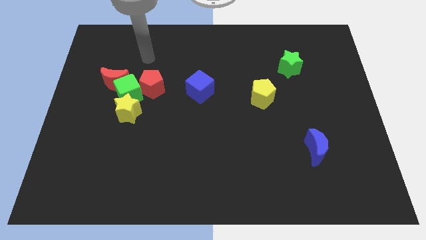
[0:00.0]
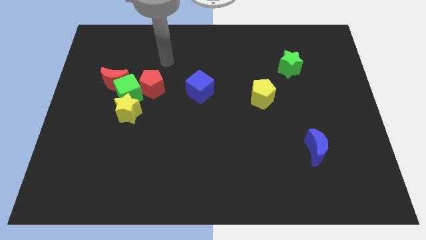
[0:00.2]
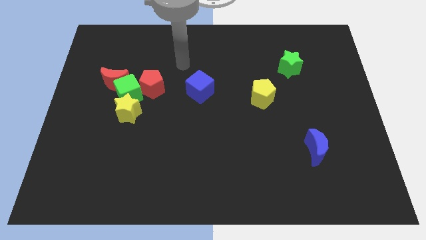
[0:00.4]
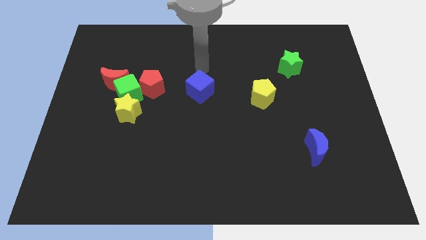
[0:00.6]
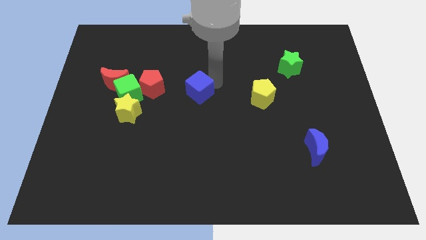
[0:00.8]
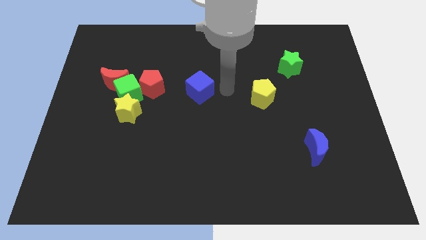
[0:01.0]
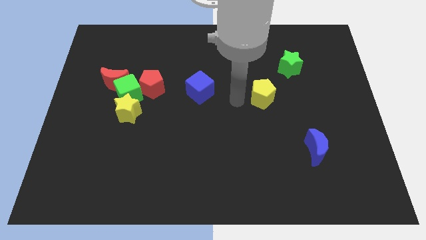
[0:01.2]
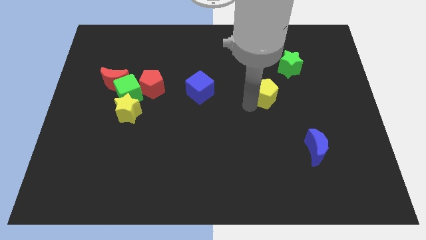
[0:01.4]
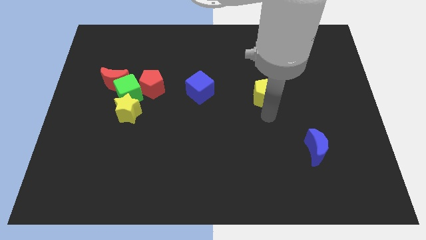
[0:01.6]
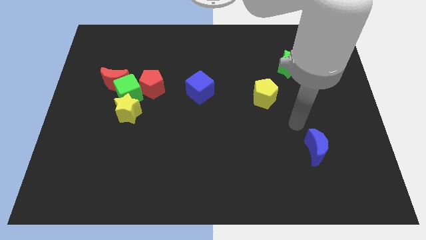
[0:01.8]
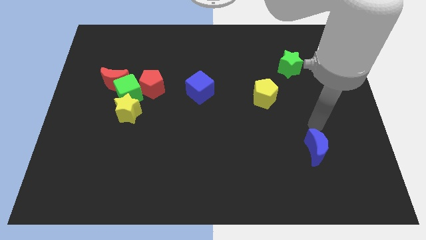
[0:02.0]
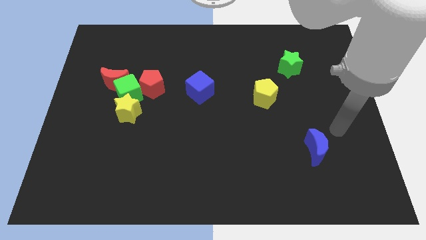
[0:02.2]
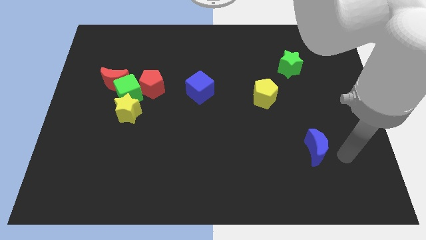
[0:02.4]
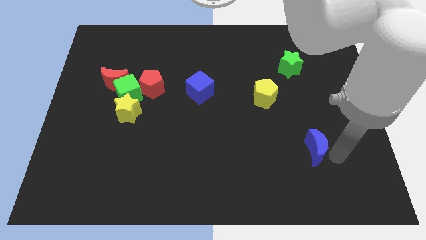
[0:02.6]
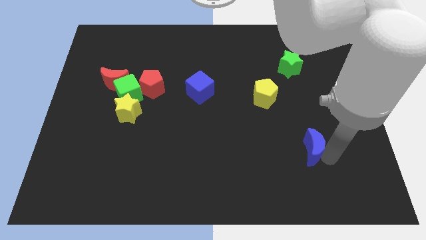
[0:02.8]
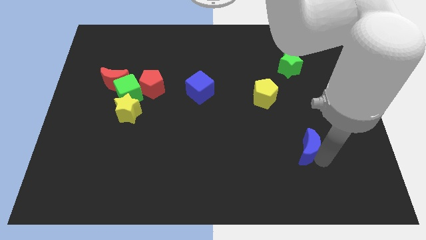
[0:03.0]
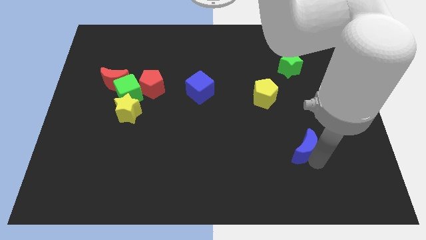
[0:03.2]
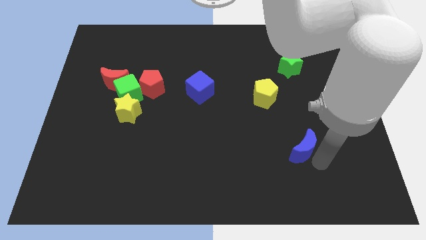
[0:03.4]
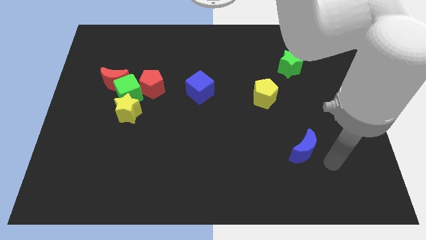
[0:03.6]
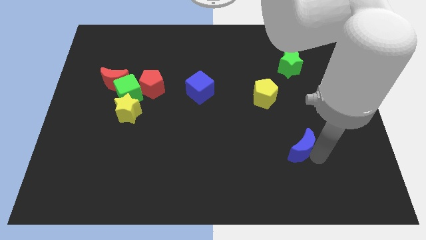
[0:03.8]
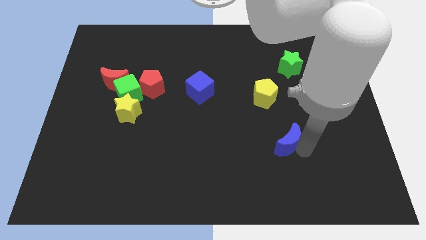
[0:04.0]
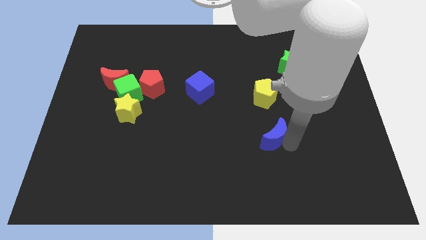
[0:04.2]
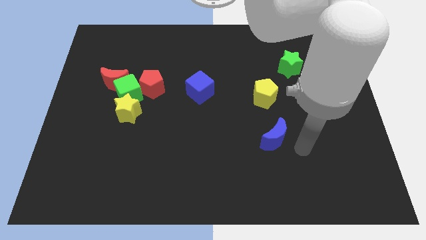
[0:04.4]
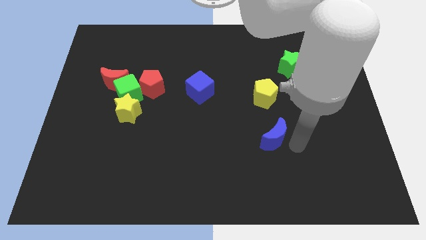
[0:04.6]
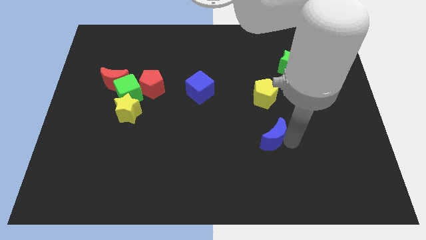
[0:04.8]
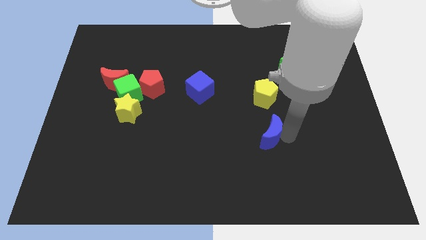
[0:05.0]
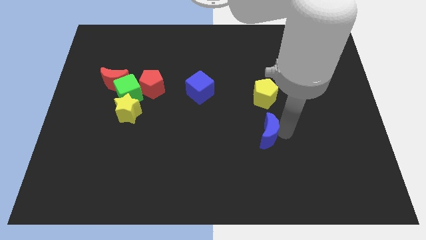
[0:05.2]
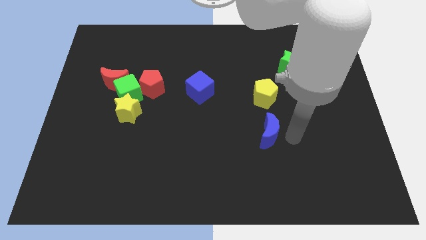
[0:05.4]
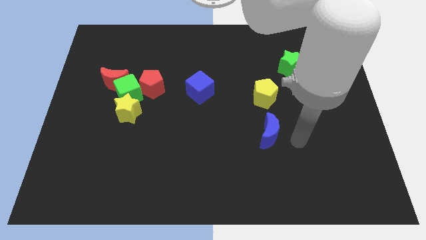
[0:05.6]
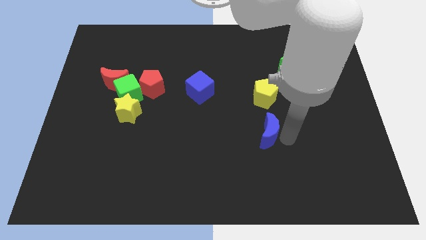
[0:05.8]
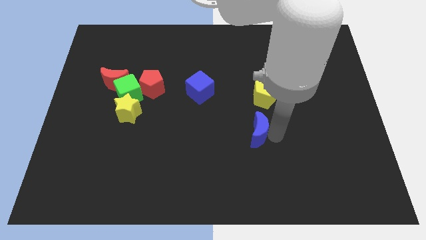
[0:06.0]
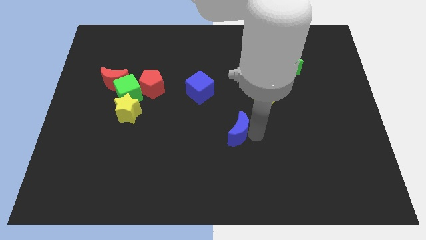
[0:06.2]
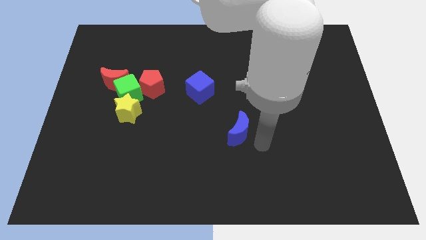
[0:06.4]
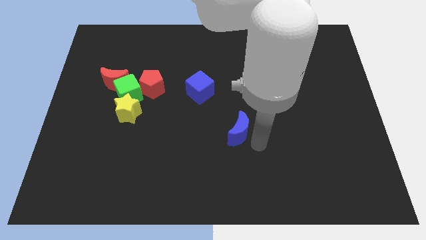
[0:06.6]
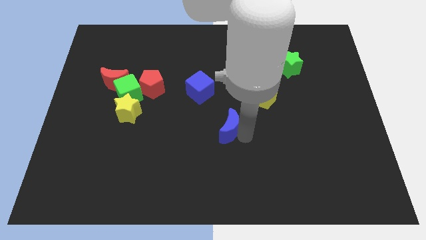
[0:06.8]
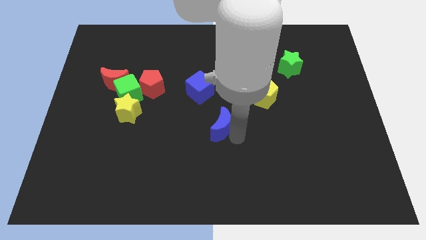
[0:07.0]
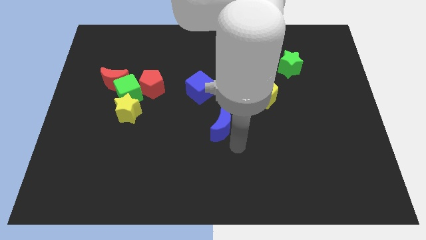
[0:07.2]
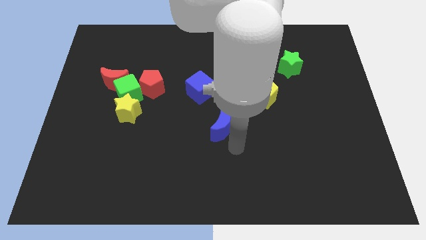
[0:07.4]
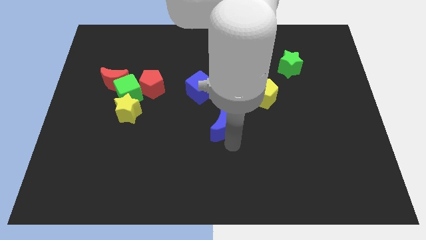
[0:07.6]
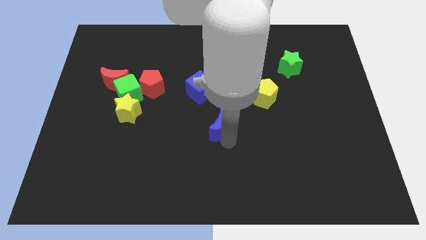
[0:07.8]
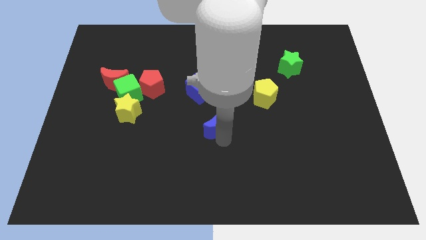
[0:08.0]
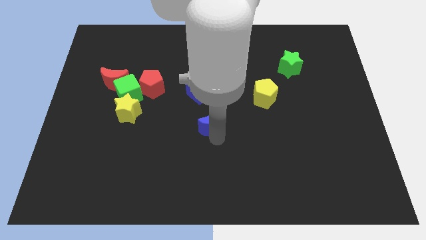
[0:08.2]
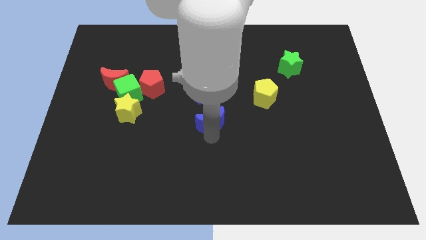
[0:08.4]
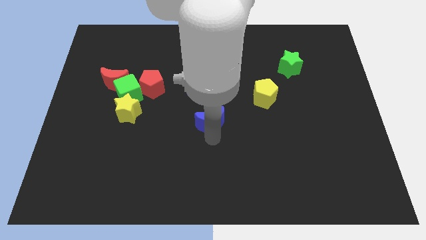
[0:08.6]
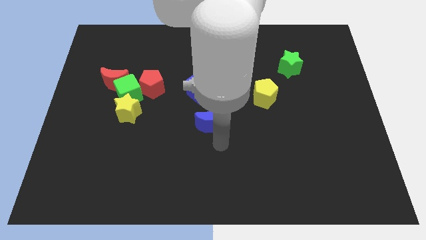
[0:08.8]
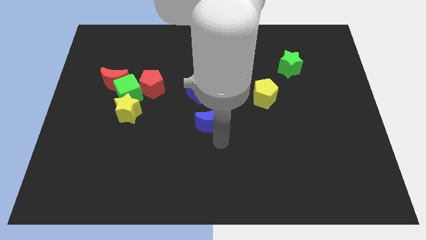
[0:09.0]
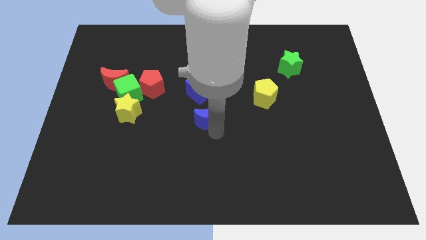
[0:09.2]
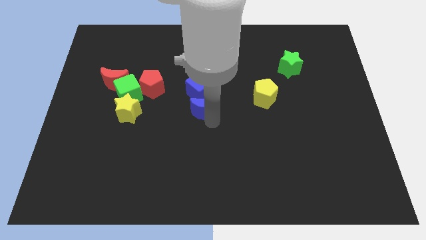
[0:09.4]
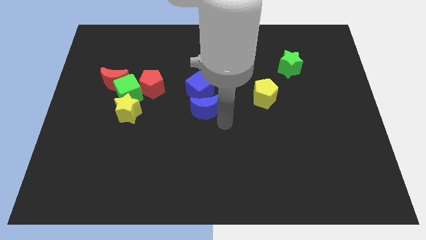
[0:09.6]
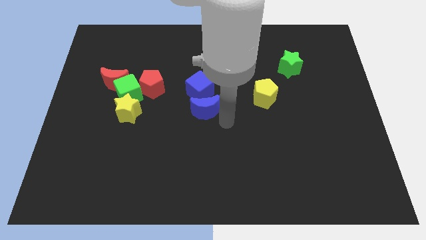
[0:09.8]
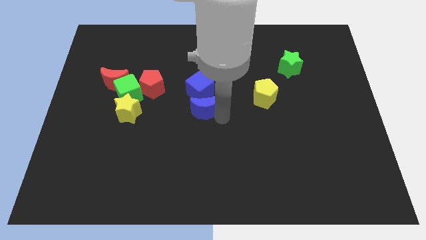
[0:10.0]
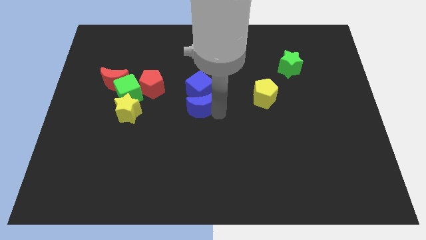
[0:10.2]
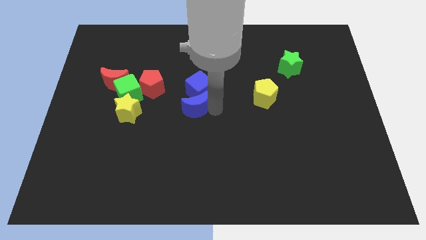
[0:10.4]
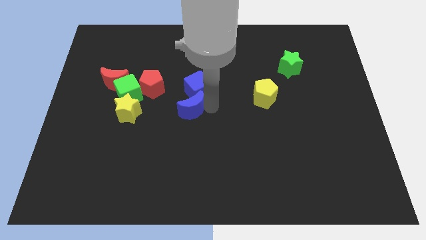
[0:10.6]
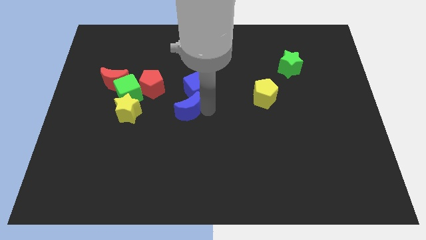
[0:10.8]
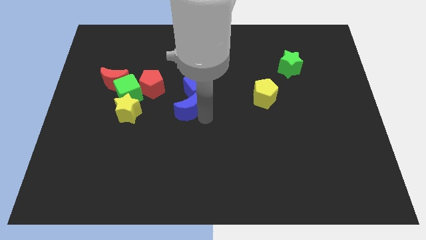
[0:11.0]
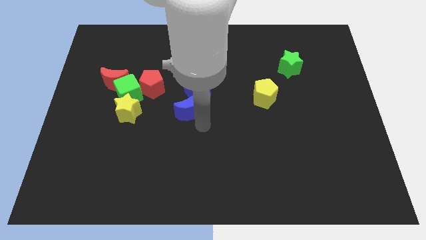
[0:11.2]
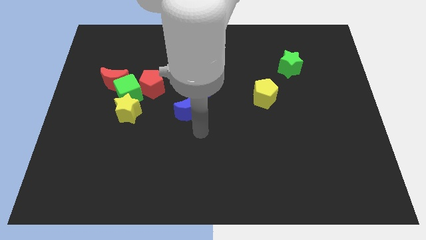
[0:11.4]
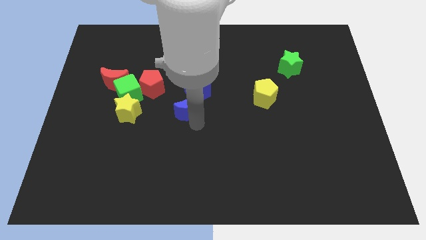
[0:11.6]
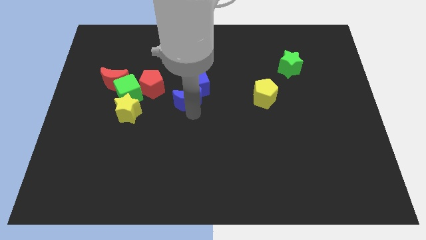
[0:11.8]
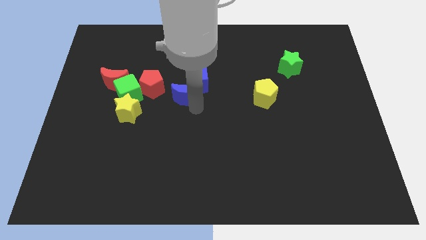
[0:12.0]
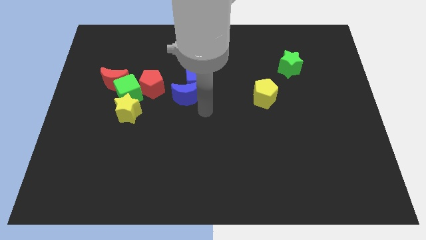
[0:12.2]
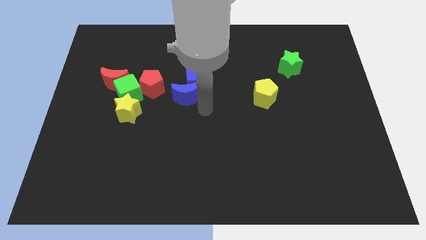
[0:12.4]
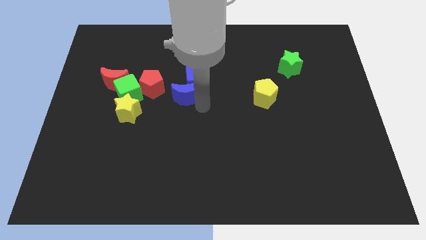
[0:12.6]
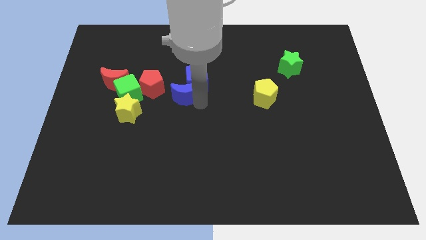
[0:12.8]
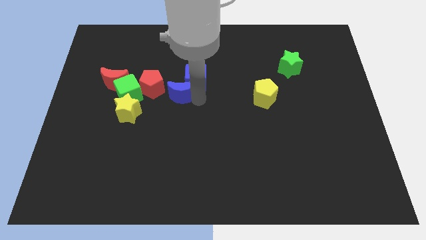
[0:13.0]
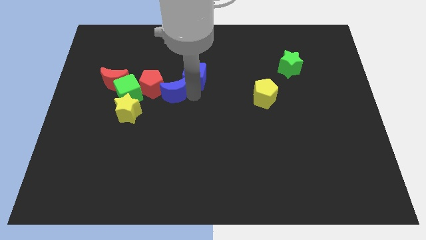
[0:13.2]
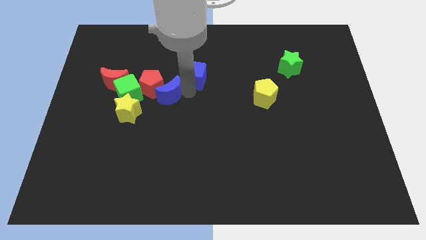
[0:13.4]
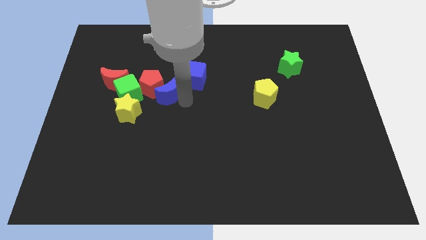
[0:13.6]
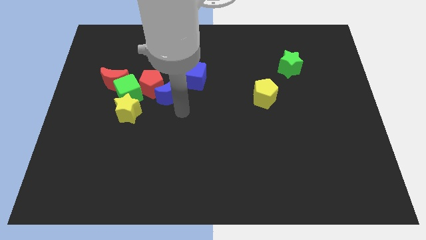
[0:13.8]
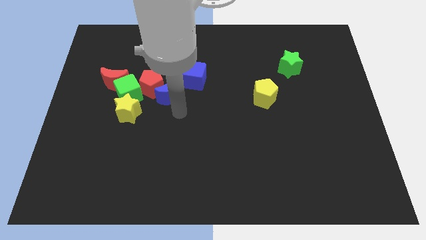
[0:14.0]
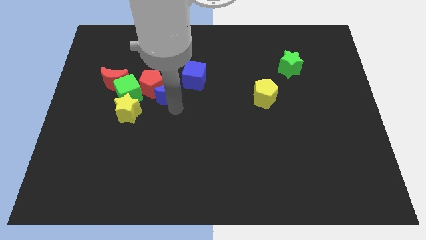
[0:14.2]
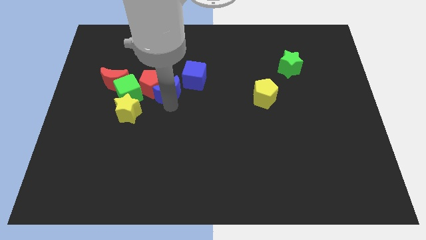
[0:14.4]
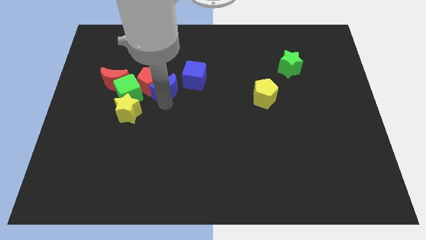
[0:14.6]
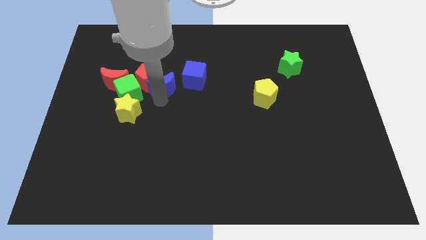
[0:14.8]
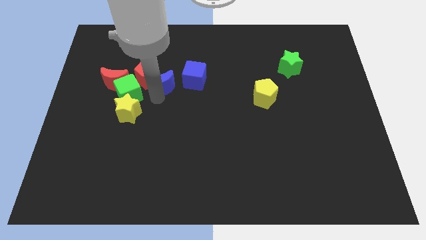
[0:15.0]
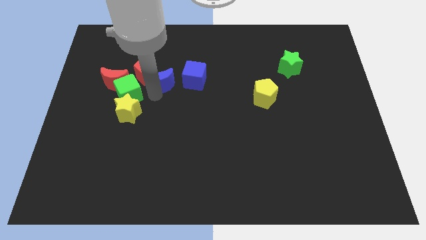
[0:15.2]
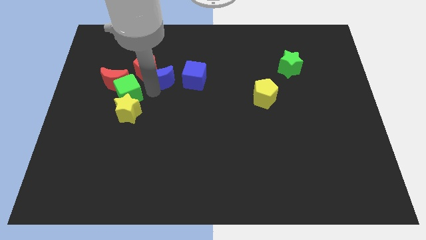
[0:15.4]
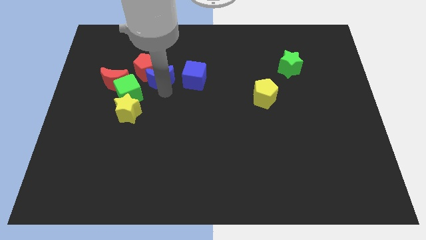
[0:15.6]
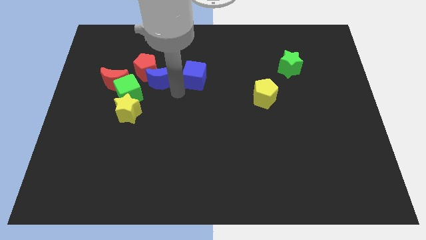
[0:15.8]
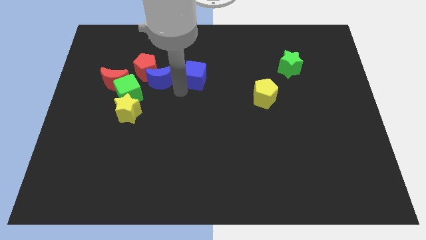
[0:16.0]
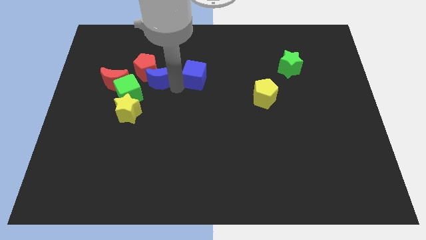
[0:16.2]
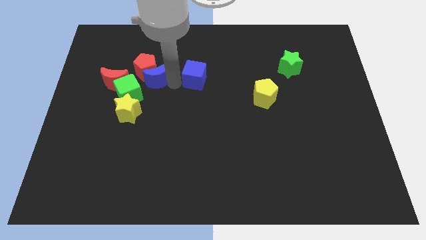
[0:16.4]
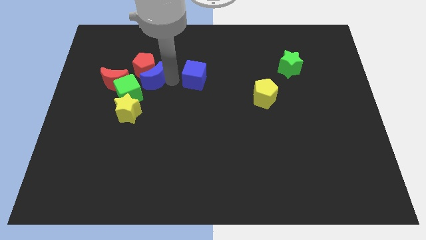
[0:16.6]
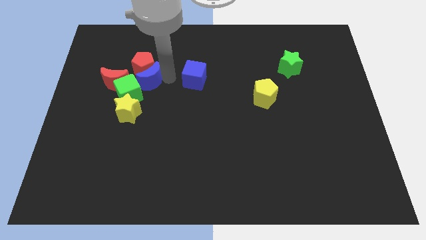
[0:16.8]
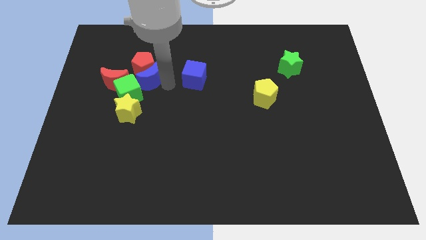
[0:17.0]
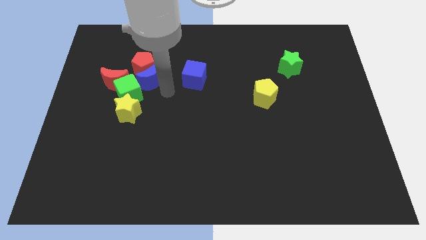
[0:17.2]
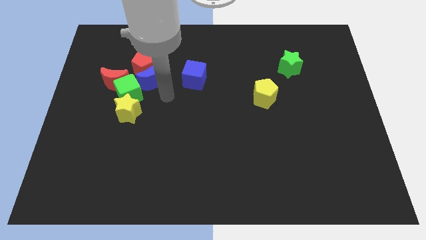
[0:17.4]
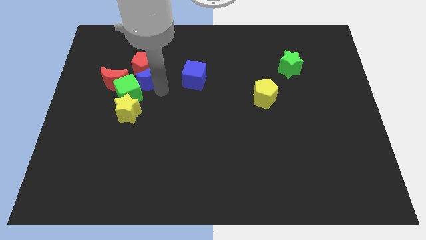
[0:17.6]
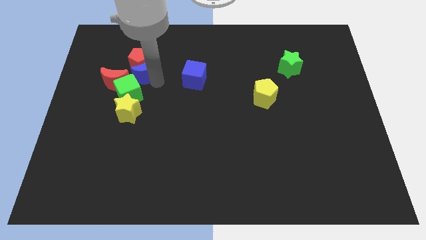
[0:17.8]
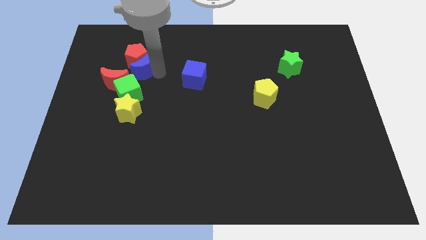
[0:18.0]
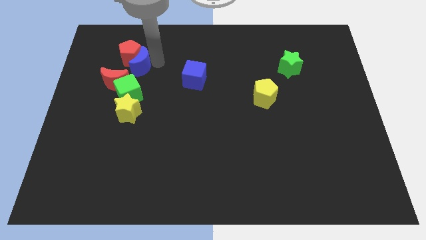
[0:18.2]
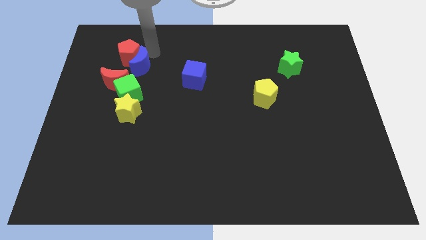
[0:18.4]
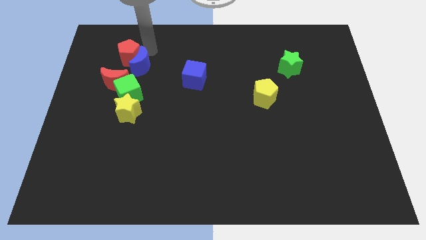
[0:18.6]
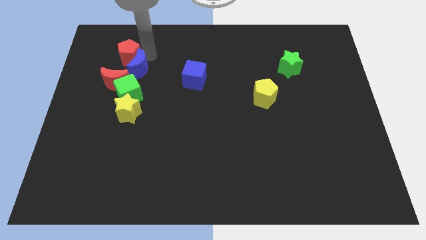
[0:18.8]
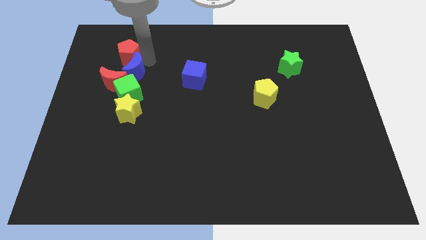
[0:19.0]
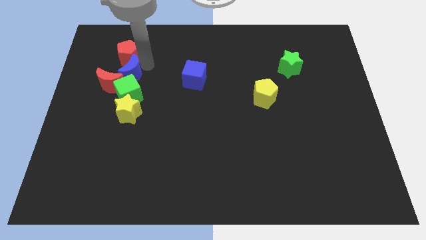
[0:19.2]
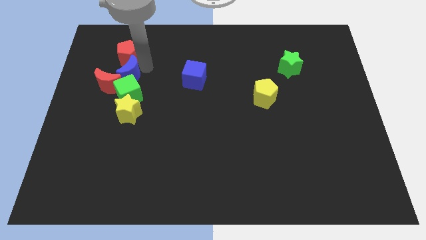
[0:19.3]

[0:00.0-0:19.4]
push the blue moon next to the green cube
